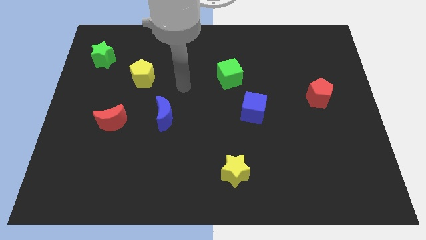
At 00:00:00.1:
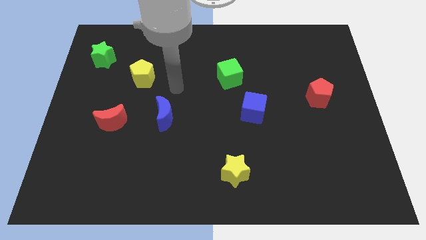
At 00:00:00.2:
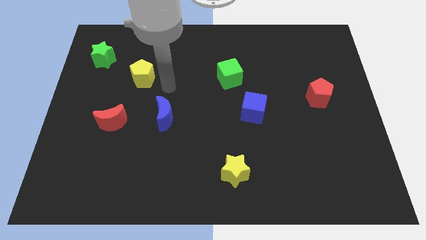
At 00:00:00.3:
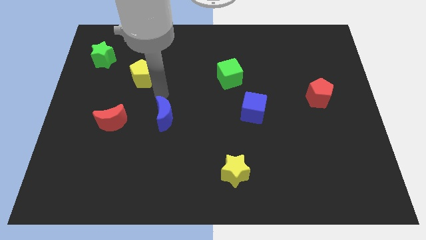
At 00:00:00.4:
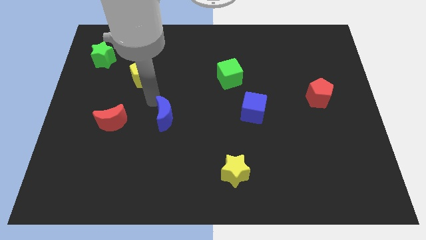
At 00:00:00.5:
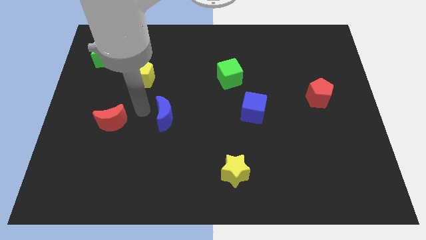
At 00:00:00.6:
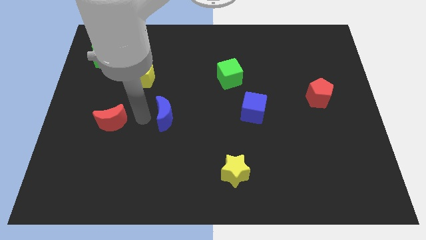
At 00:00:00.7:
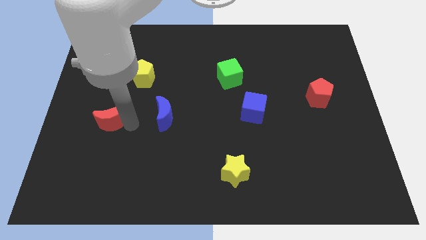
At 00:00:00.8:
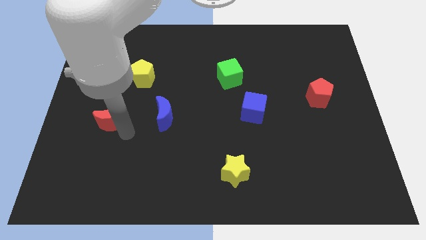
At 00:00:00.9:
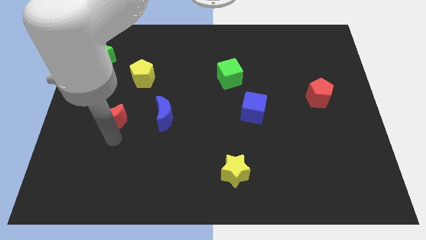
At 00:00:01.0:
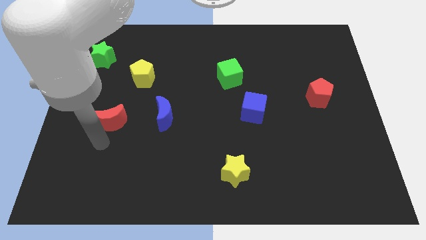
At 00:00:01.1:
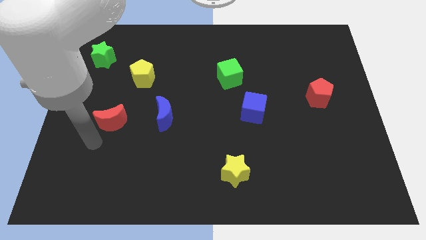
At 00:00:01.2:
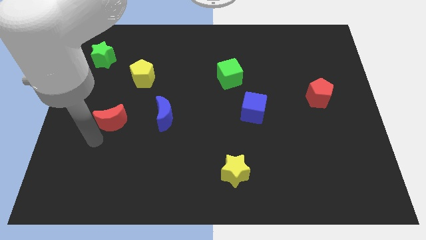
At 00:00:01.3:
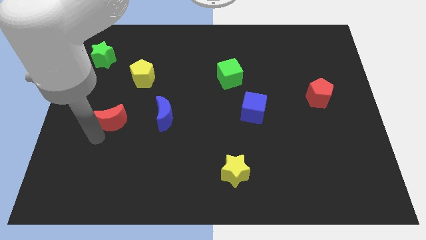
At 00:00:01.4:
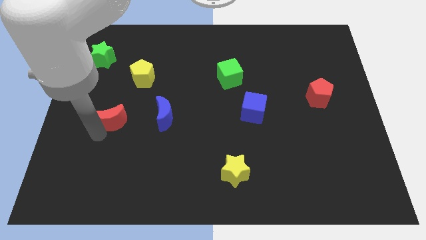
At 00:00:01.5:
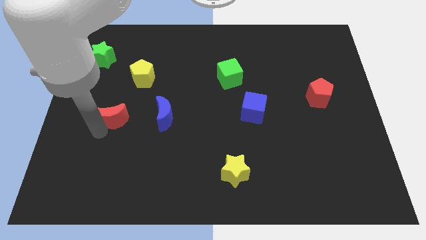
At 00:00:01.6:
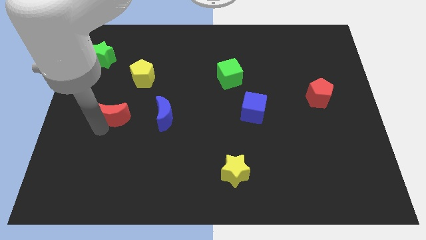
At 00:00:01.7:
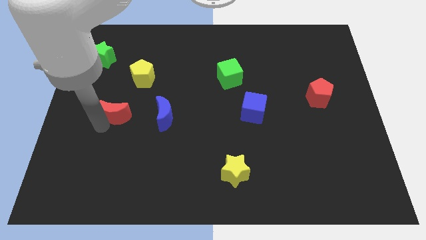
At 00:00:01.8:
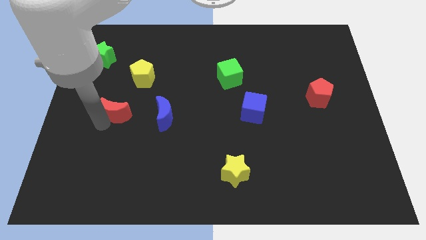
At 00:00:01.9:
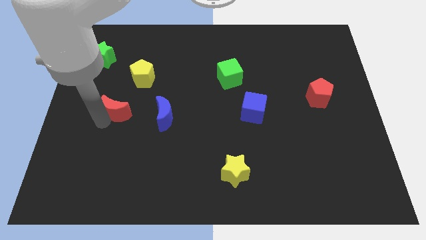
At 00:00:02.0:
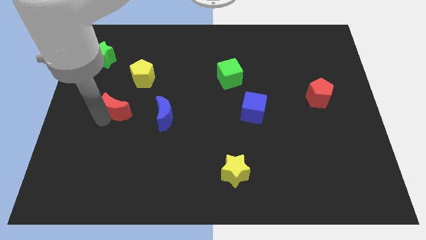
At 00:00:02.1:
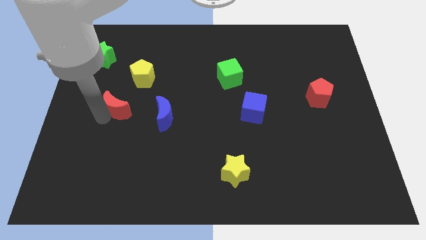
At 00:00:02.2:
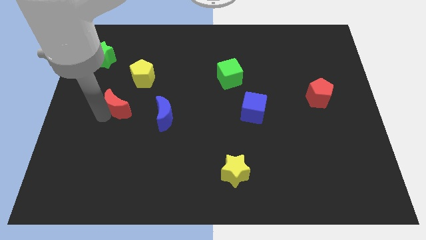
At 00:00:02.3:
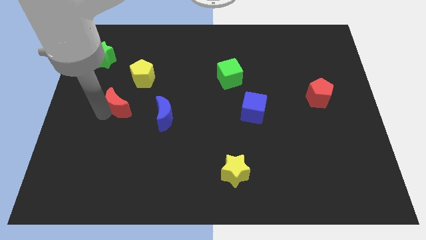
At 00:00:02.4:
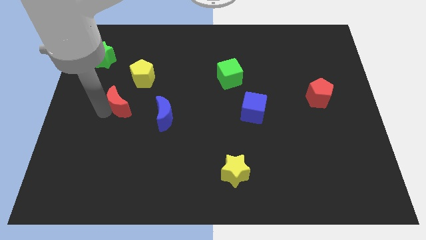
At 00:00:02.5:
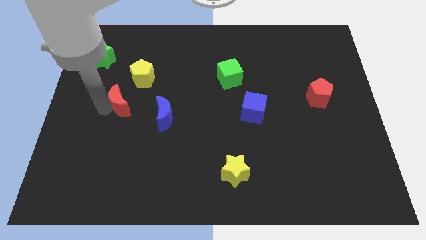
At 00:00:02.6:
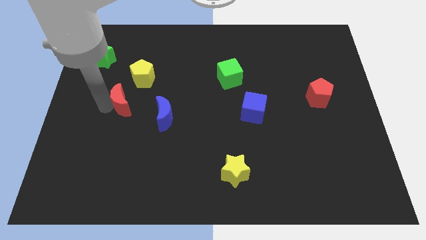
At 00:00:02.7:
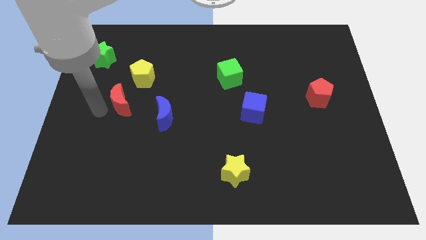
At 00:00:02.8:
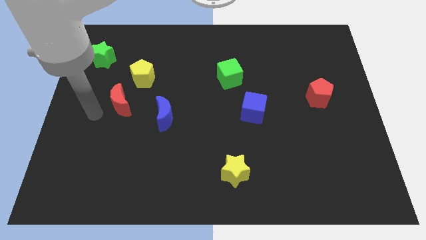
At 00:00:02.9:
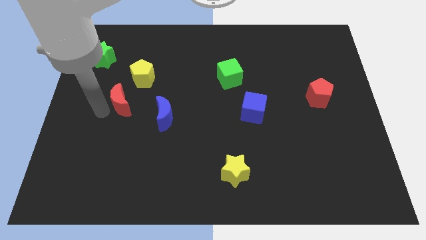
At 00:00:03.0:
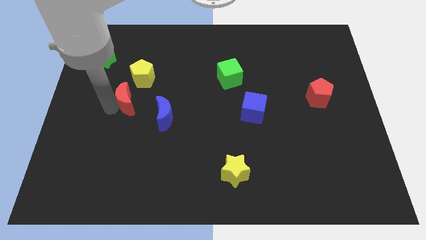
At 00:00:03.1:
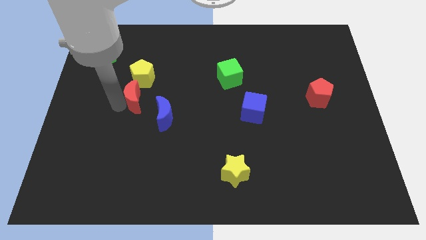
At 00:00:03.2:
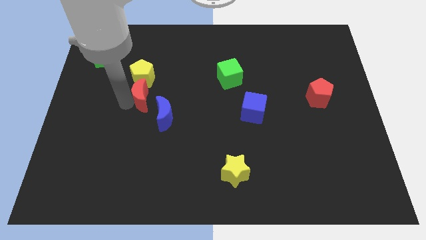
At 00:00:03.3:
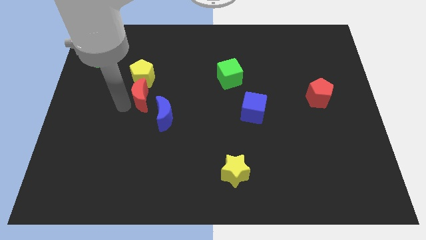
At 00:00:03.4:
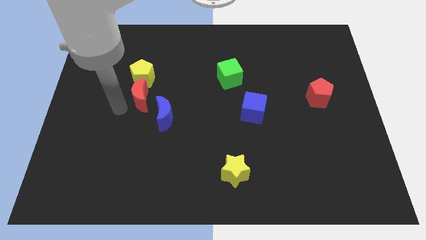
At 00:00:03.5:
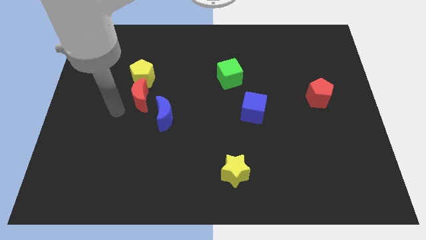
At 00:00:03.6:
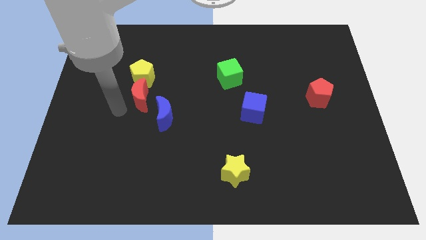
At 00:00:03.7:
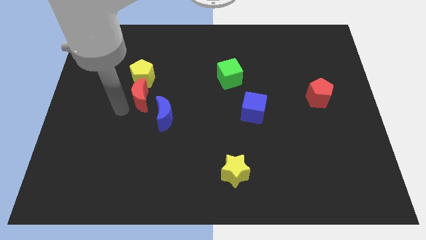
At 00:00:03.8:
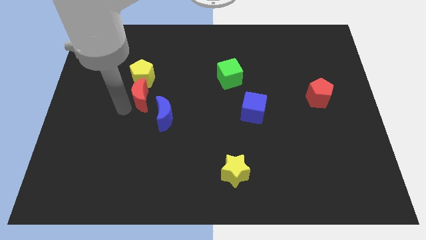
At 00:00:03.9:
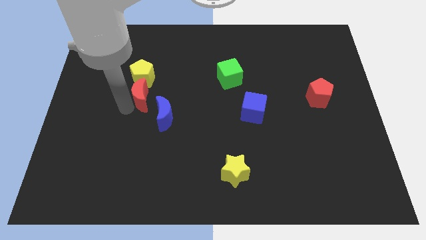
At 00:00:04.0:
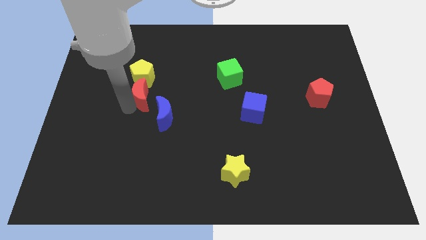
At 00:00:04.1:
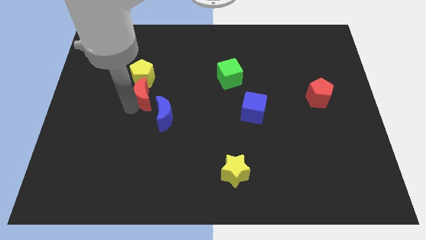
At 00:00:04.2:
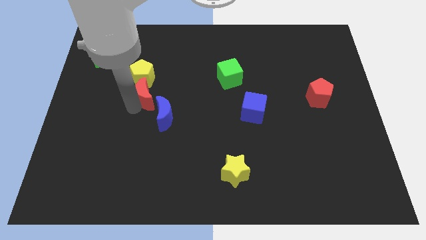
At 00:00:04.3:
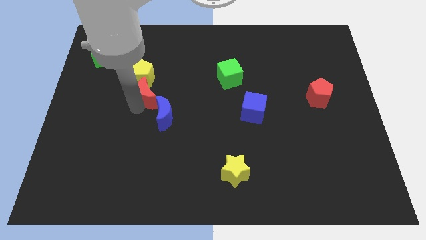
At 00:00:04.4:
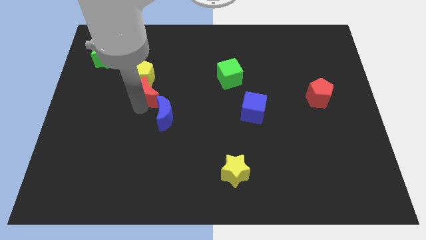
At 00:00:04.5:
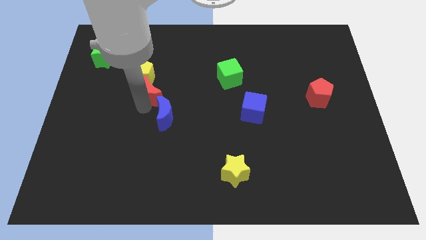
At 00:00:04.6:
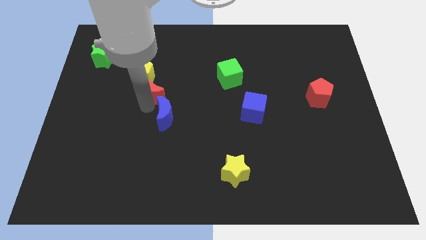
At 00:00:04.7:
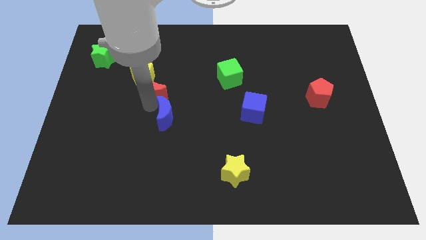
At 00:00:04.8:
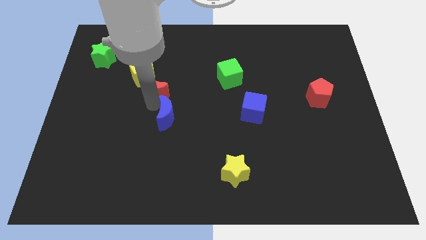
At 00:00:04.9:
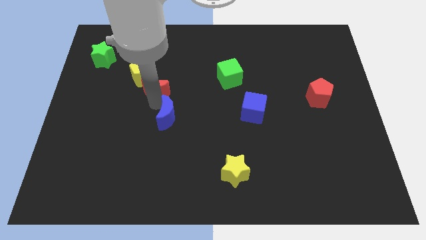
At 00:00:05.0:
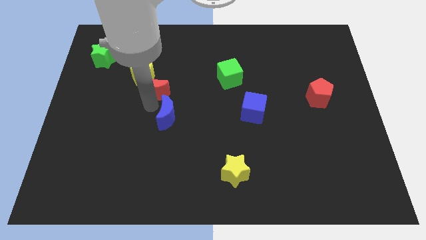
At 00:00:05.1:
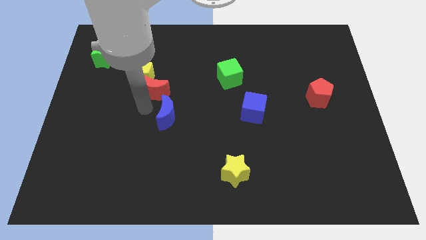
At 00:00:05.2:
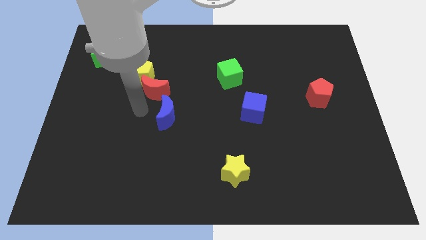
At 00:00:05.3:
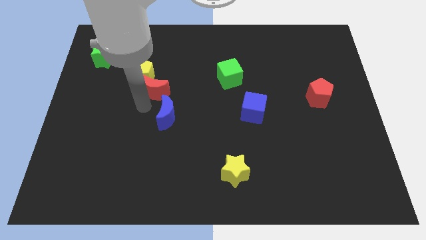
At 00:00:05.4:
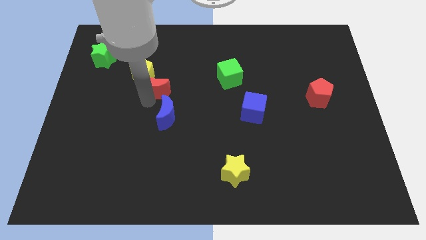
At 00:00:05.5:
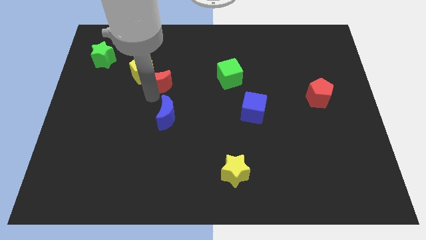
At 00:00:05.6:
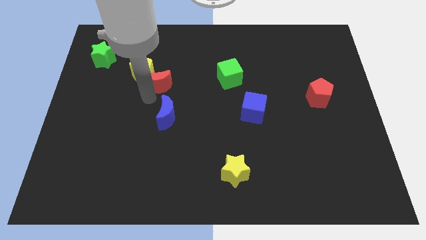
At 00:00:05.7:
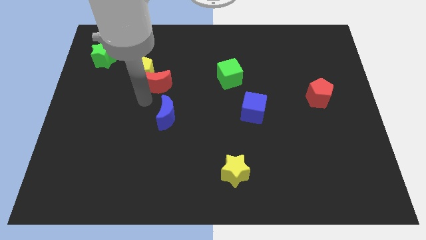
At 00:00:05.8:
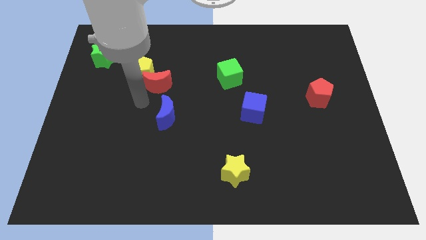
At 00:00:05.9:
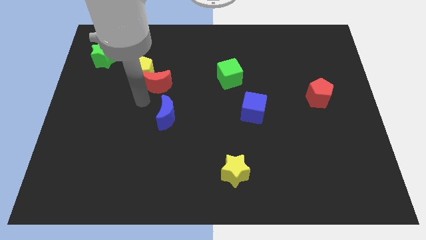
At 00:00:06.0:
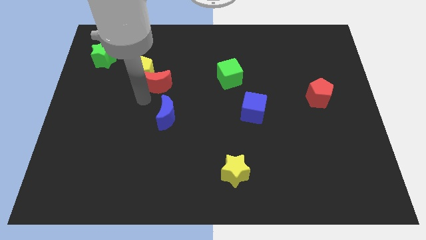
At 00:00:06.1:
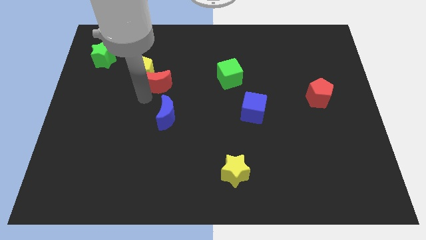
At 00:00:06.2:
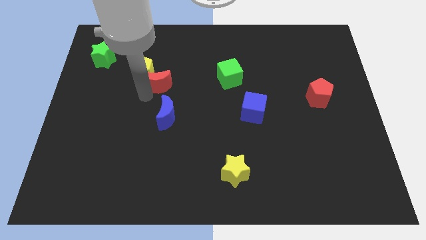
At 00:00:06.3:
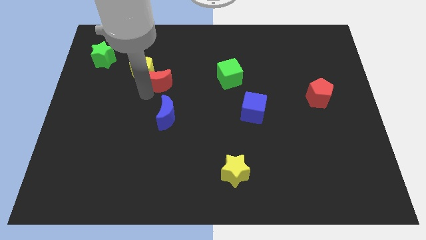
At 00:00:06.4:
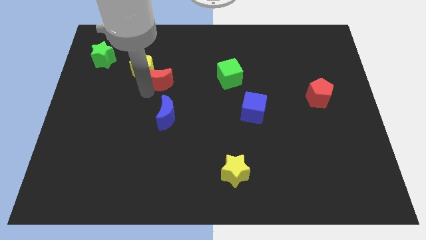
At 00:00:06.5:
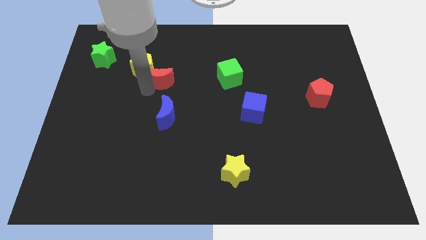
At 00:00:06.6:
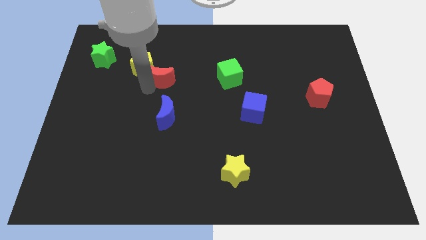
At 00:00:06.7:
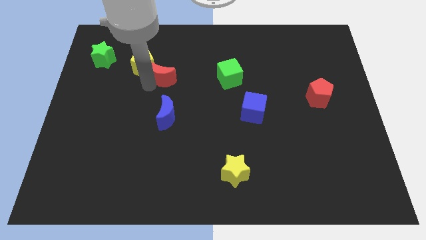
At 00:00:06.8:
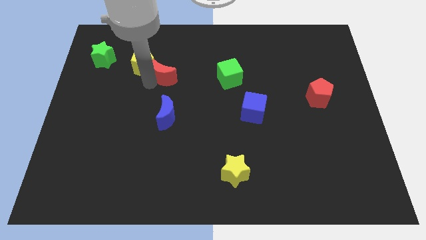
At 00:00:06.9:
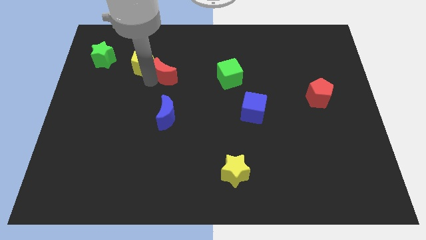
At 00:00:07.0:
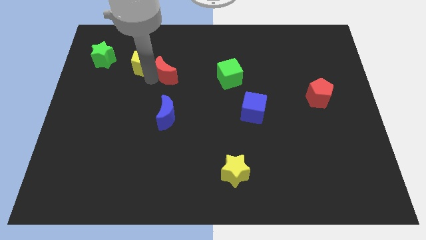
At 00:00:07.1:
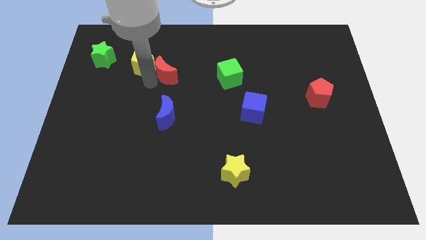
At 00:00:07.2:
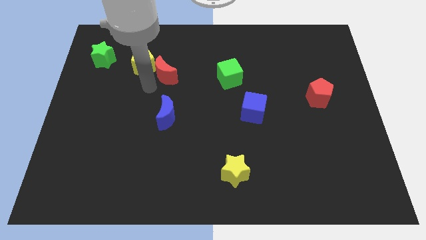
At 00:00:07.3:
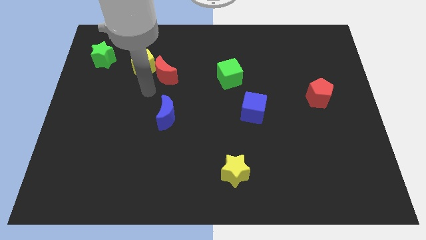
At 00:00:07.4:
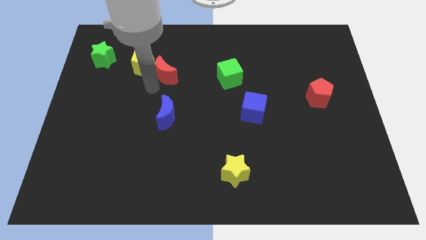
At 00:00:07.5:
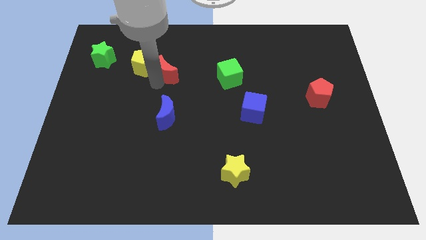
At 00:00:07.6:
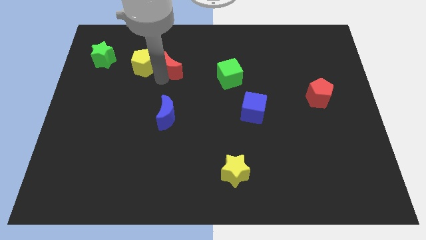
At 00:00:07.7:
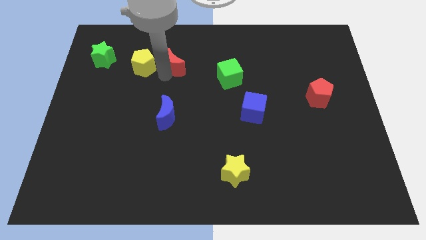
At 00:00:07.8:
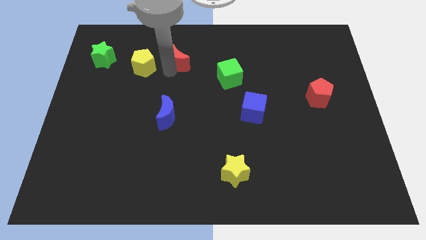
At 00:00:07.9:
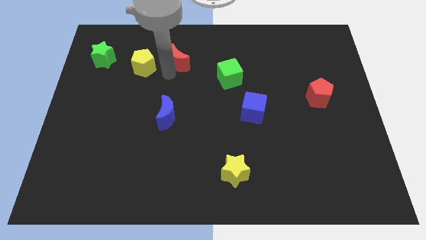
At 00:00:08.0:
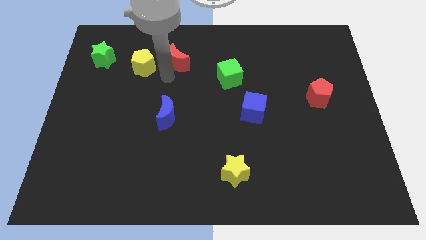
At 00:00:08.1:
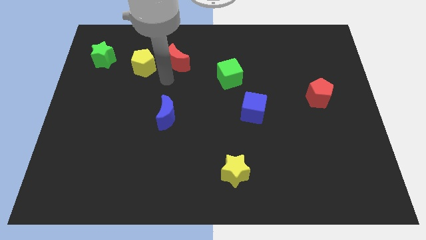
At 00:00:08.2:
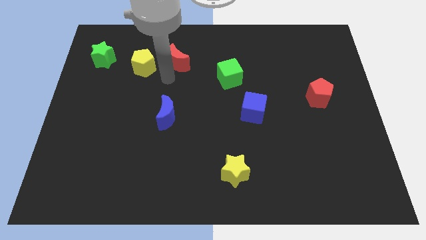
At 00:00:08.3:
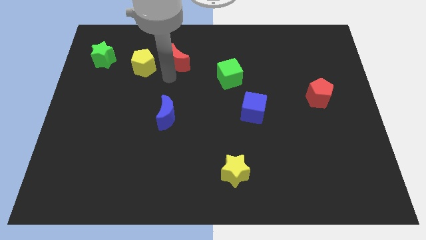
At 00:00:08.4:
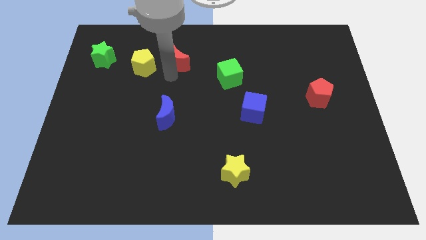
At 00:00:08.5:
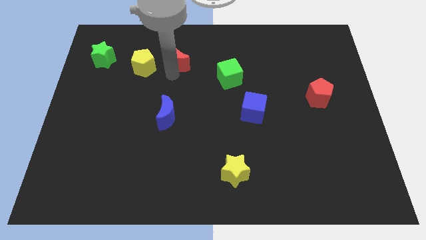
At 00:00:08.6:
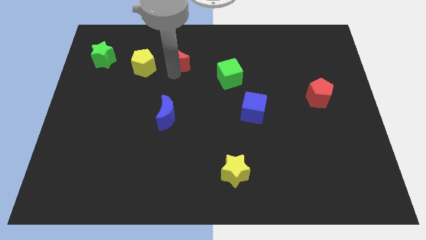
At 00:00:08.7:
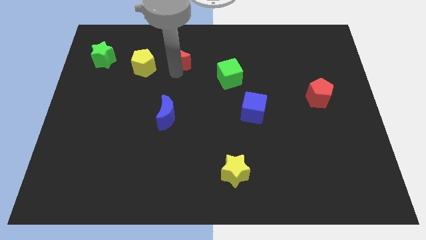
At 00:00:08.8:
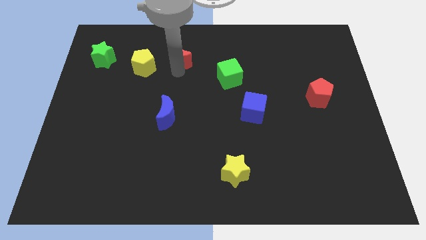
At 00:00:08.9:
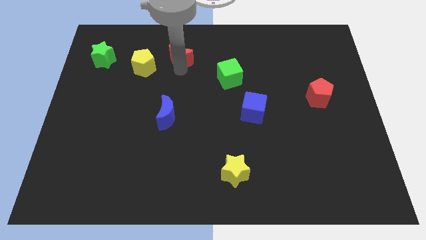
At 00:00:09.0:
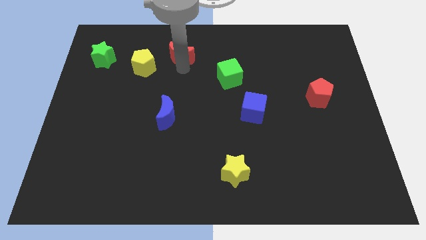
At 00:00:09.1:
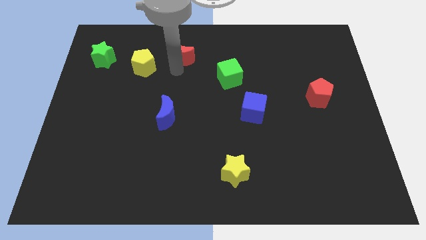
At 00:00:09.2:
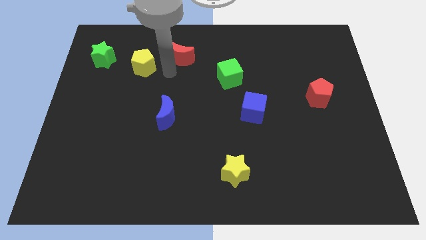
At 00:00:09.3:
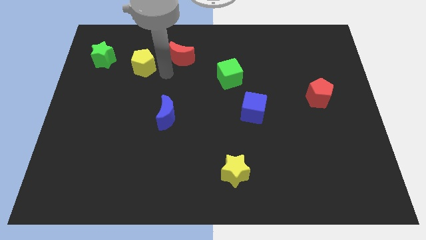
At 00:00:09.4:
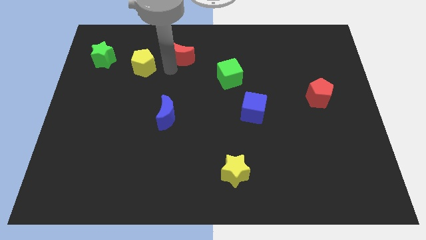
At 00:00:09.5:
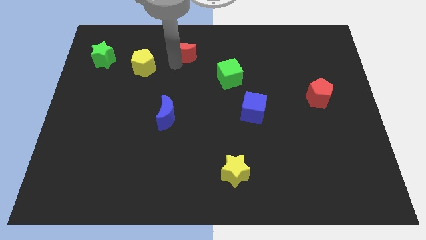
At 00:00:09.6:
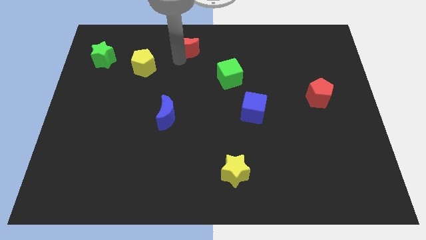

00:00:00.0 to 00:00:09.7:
slide the red moon to the towards your base
